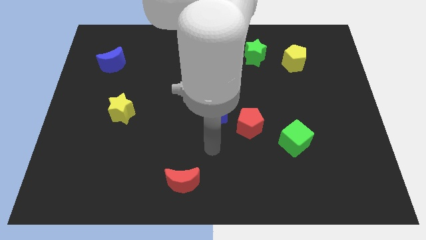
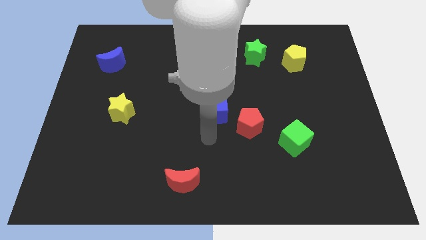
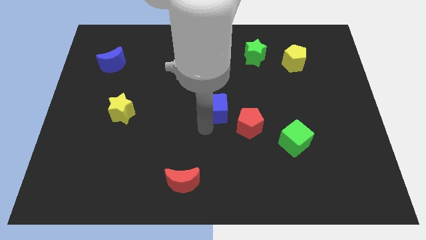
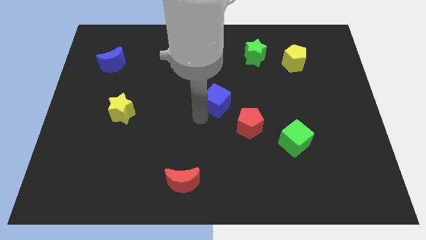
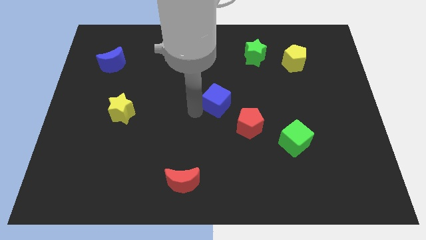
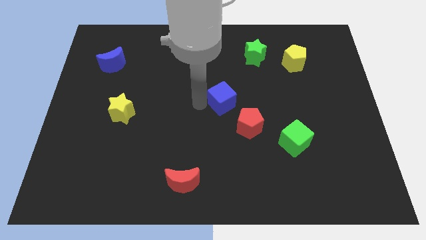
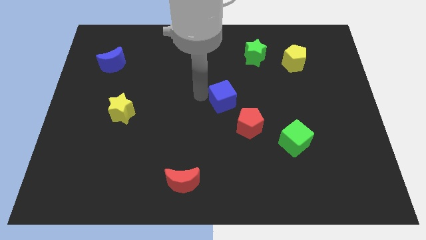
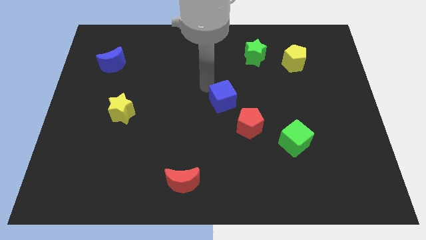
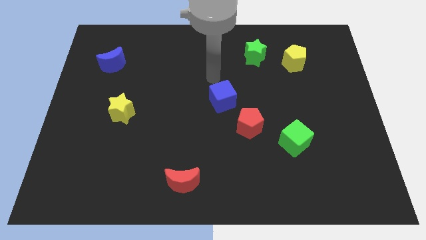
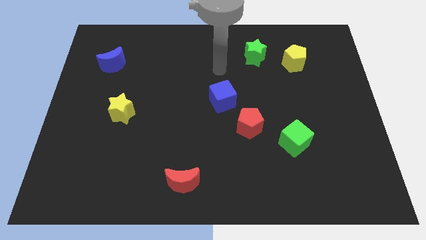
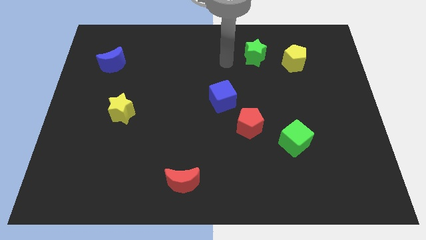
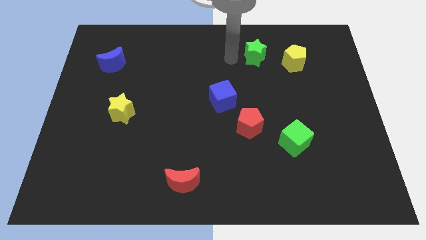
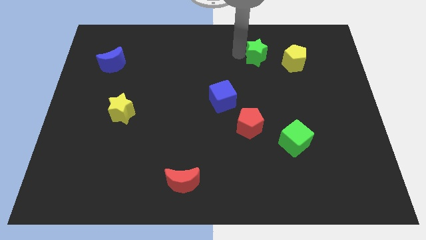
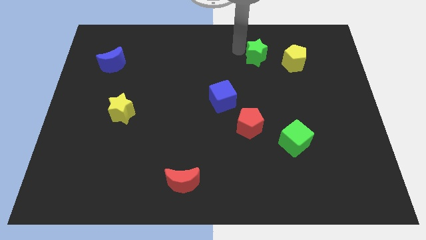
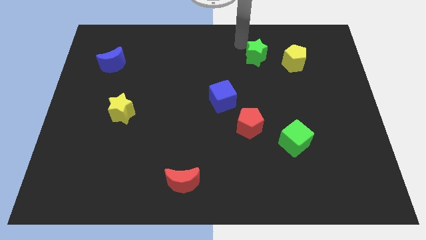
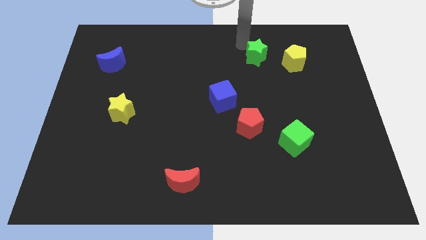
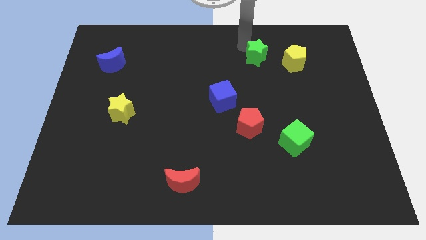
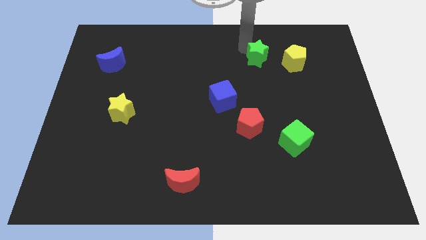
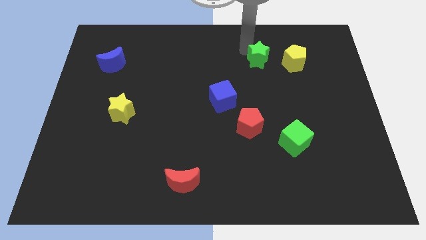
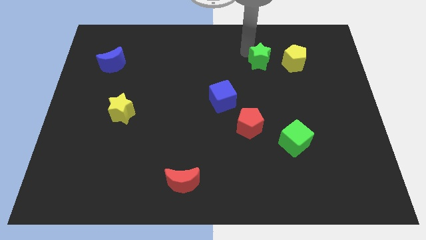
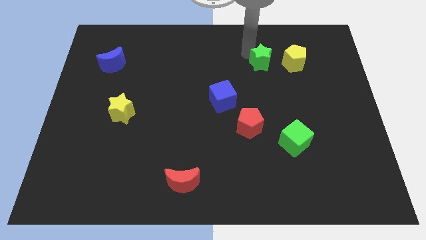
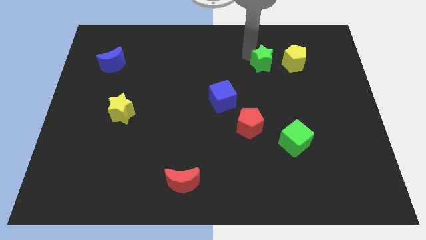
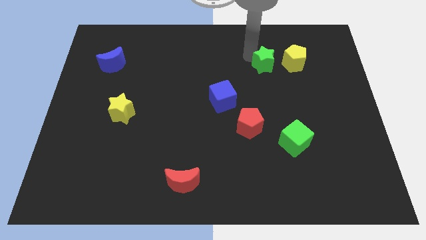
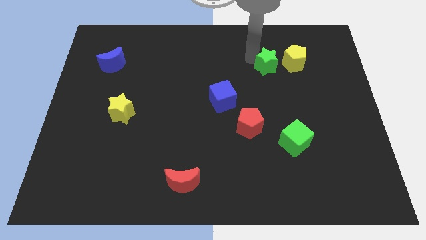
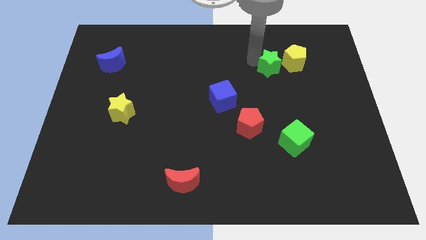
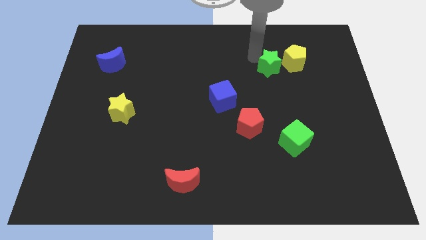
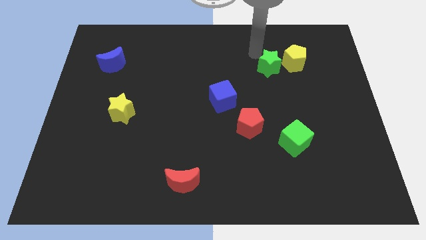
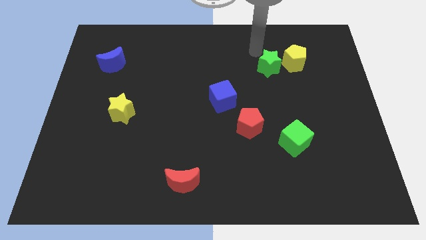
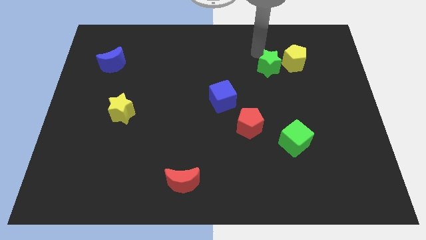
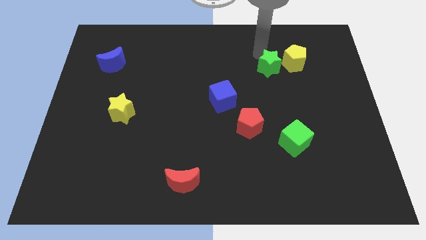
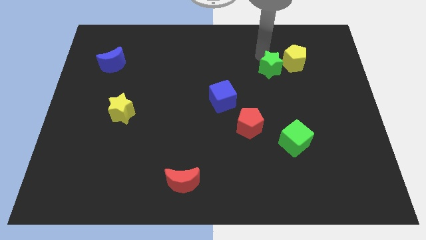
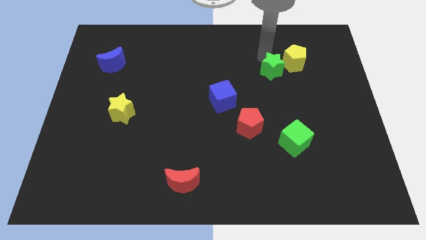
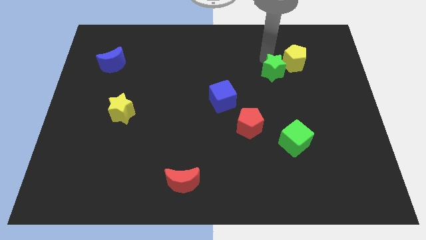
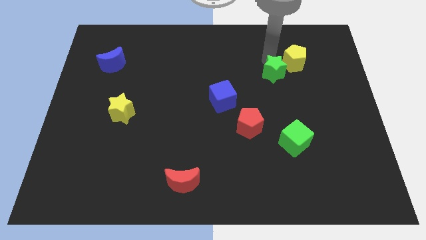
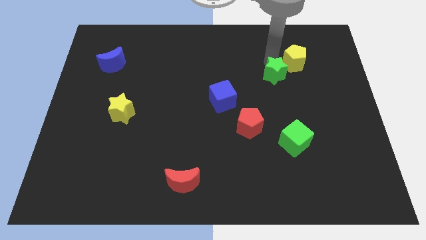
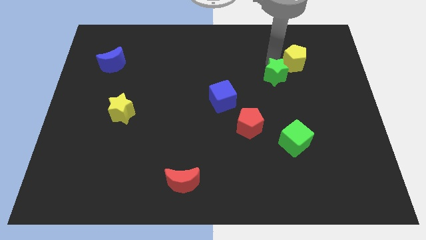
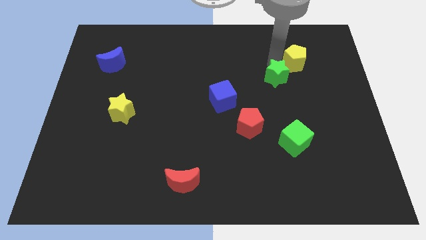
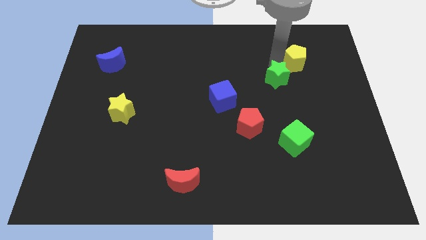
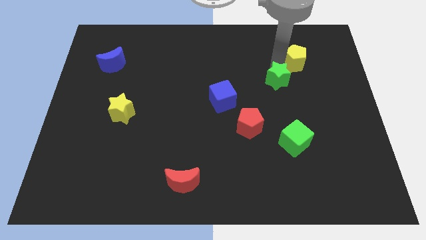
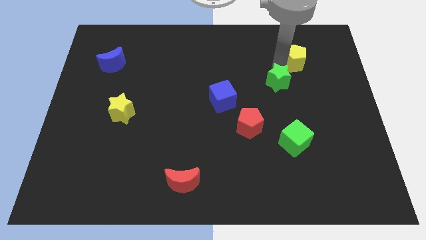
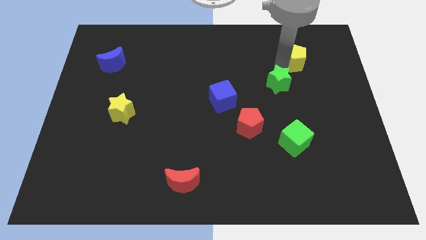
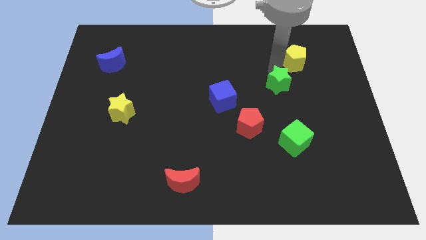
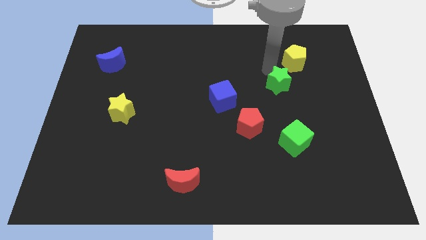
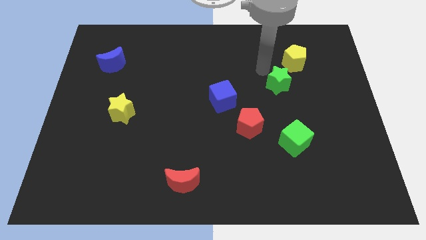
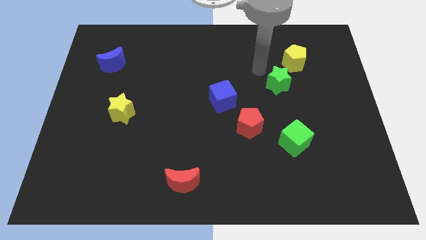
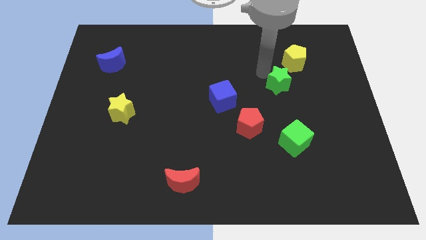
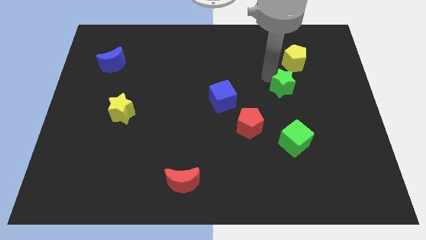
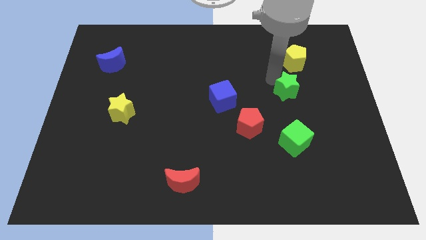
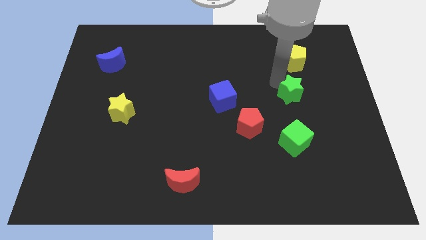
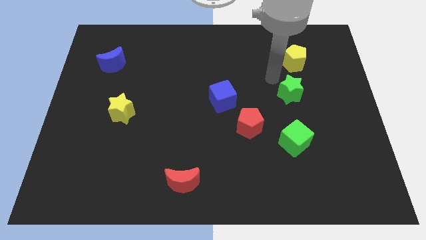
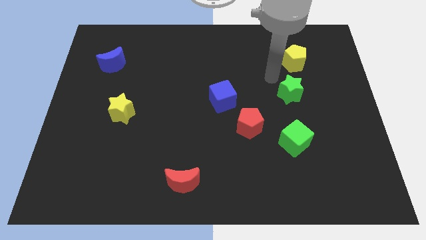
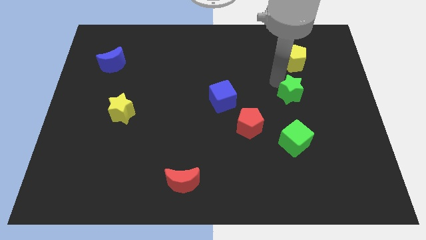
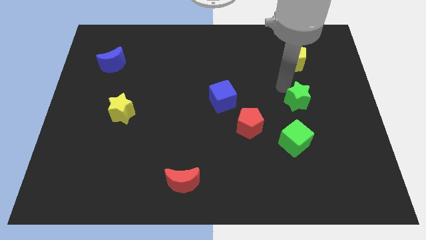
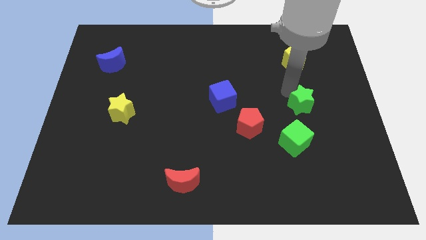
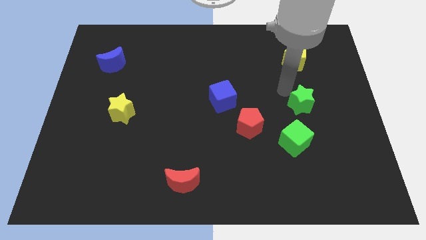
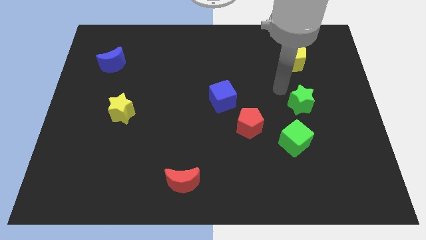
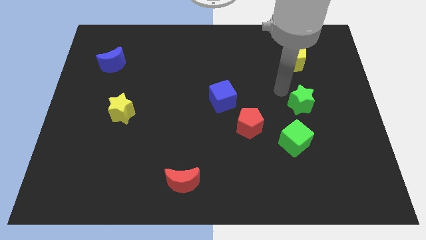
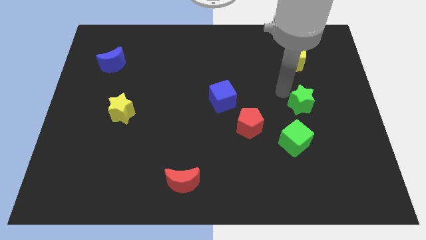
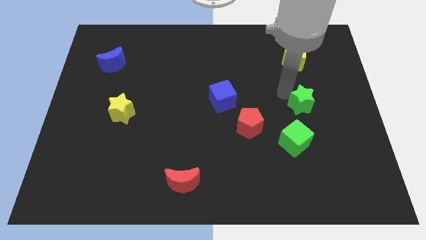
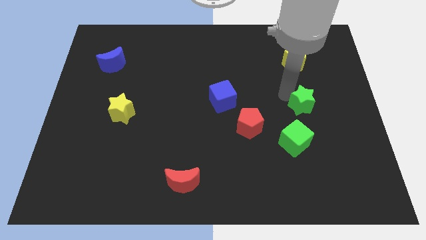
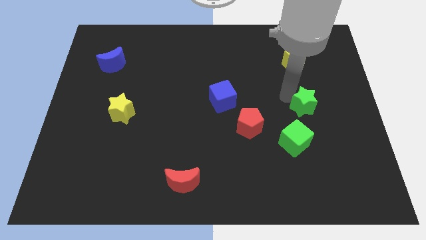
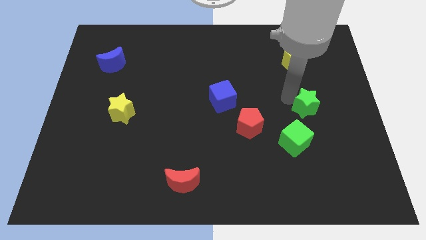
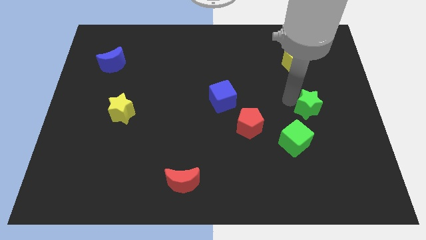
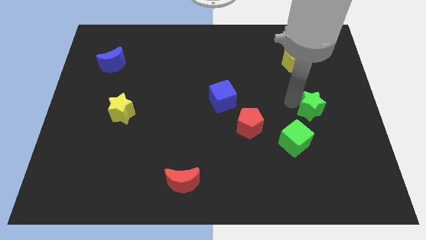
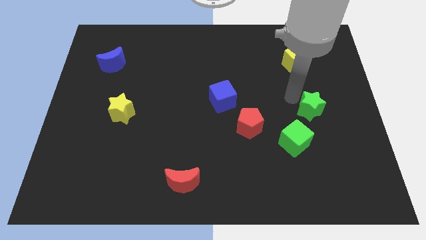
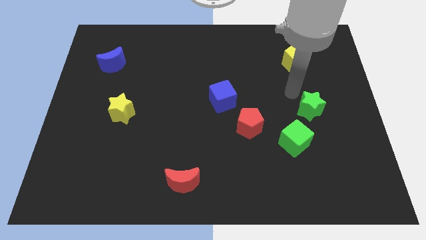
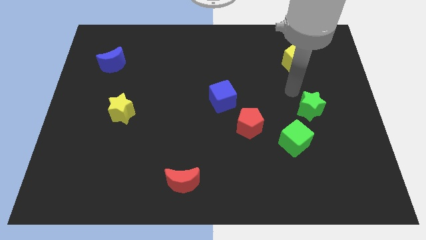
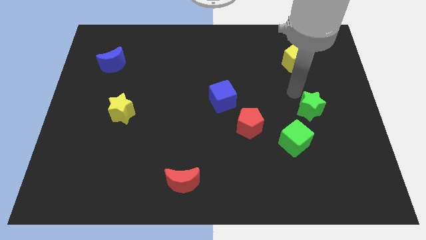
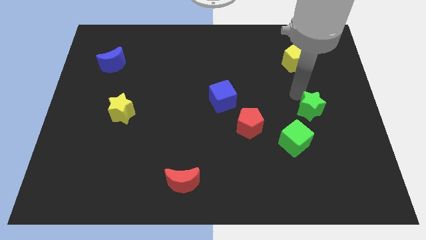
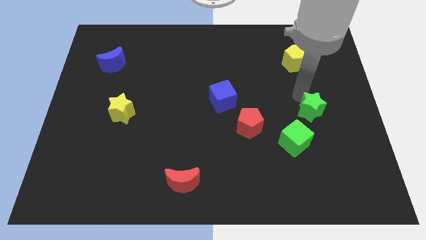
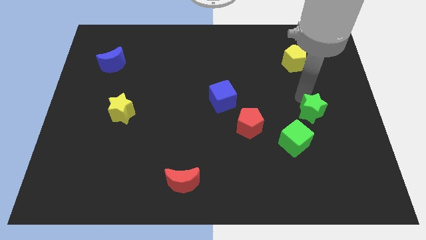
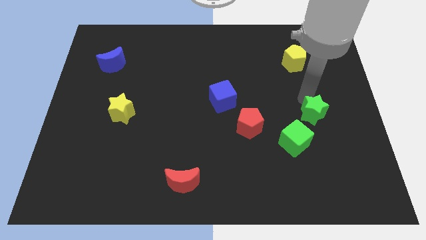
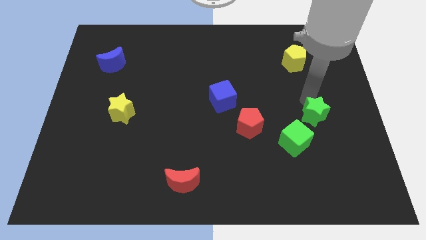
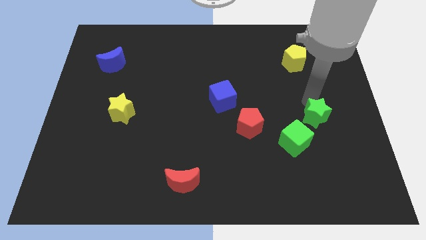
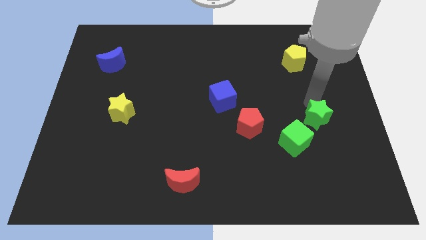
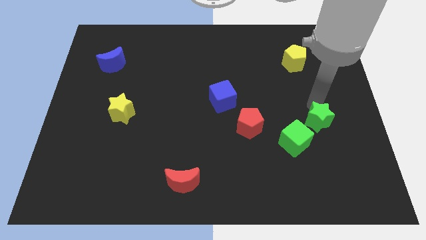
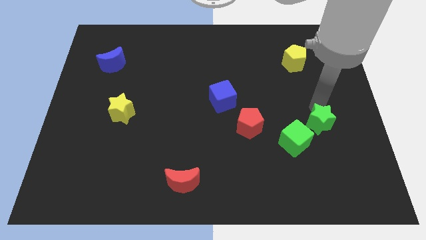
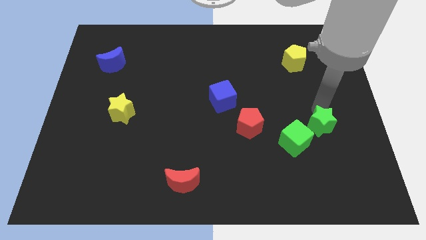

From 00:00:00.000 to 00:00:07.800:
put the green star to the right of the green cube

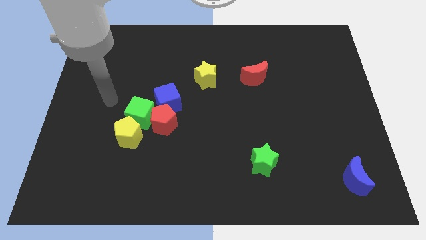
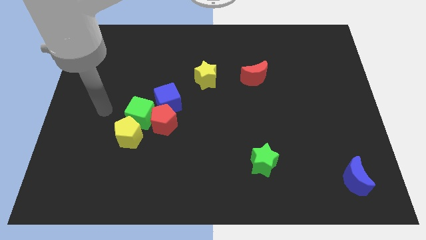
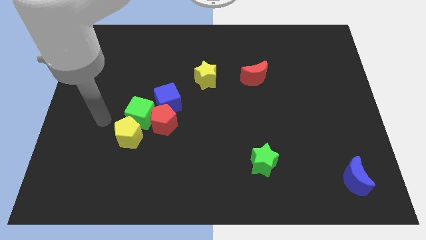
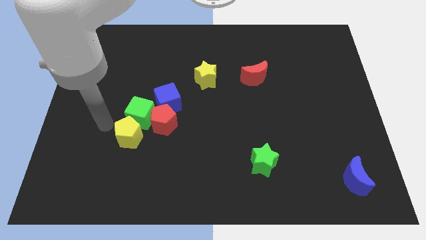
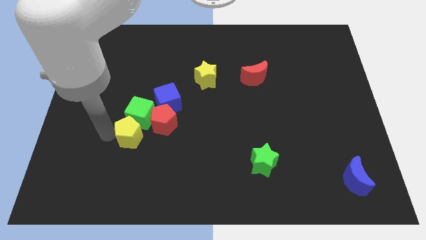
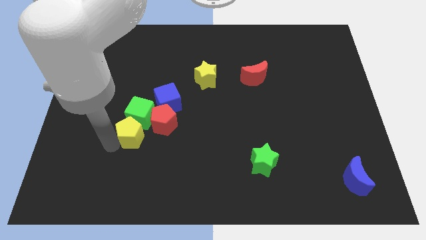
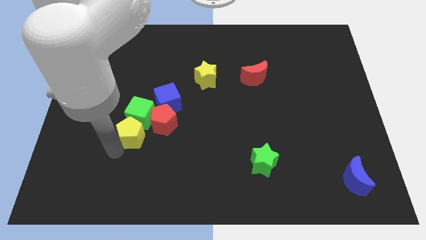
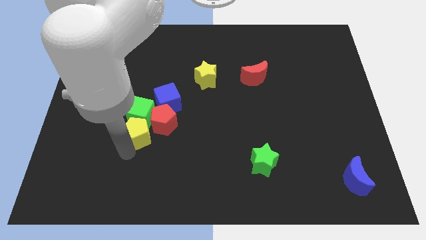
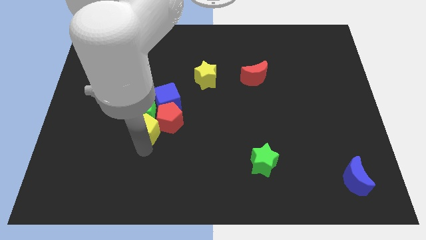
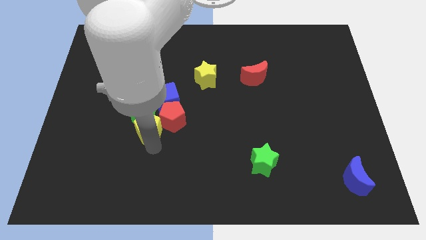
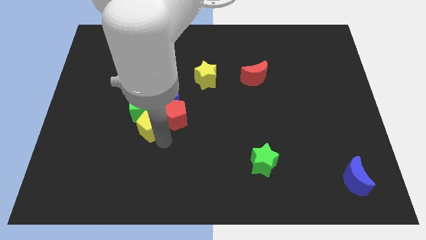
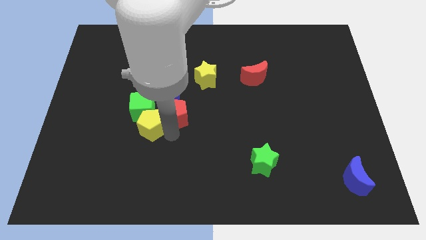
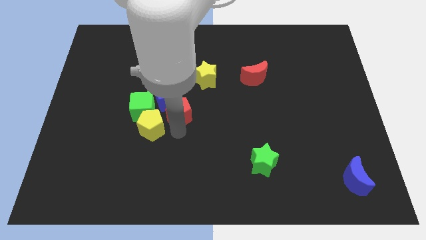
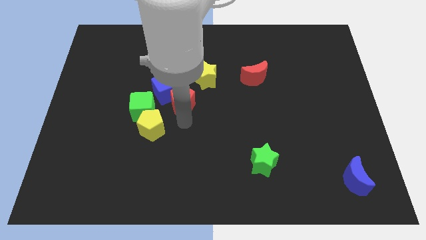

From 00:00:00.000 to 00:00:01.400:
move the blue cube to the top side of the green cube
